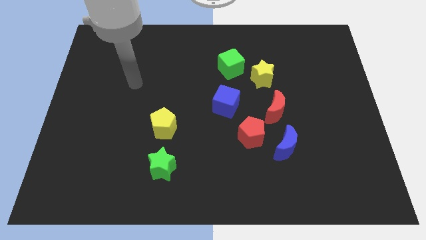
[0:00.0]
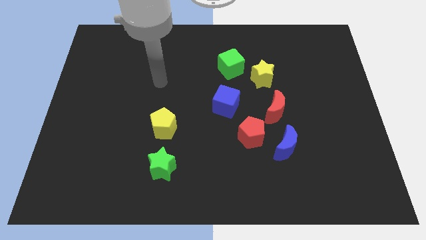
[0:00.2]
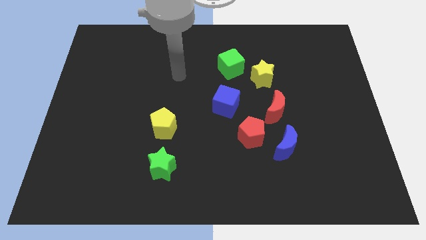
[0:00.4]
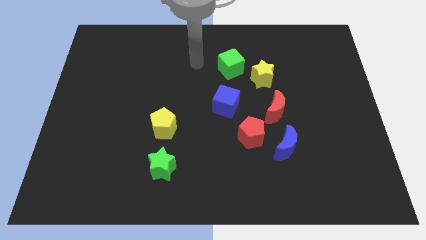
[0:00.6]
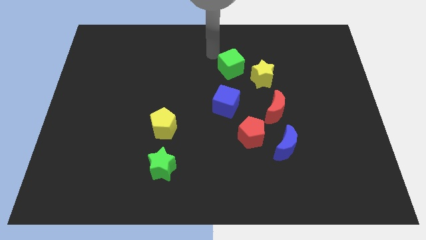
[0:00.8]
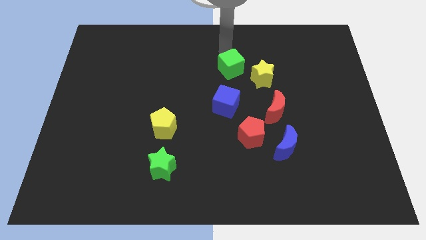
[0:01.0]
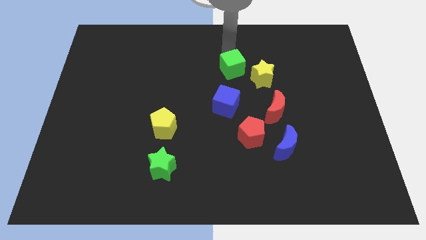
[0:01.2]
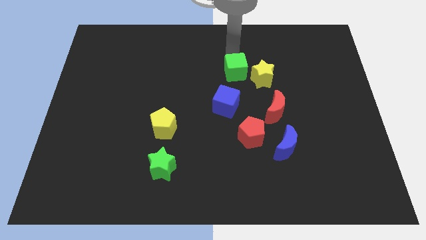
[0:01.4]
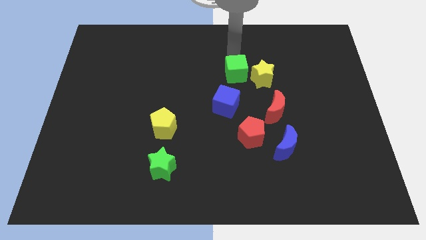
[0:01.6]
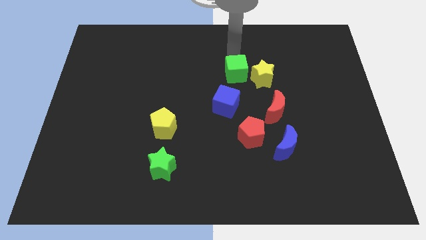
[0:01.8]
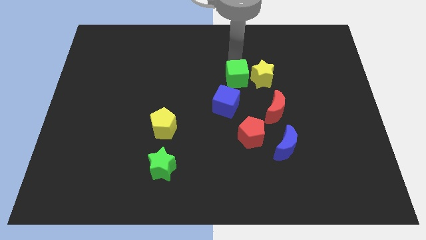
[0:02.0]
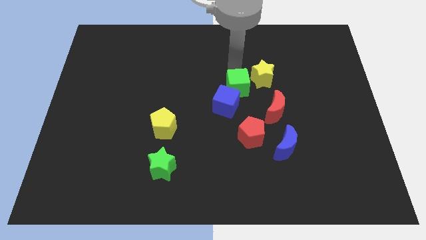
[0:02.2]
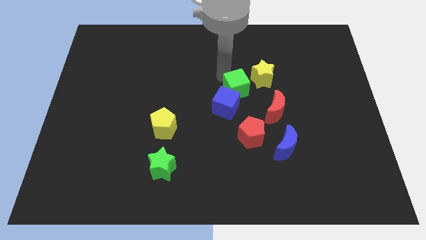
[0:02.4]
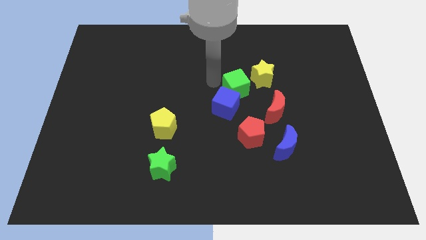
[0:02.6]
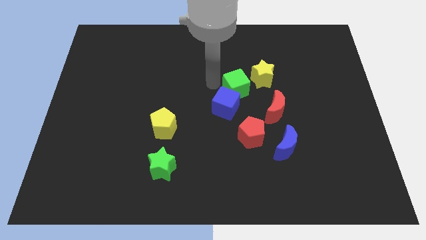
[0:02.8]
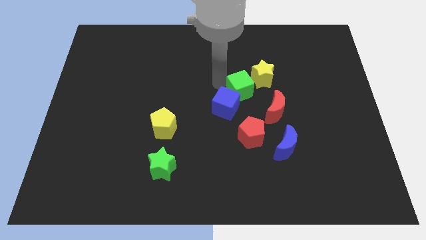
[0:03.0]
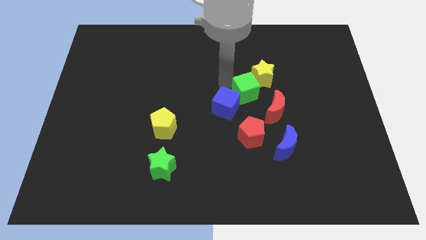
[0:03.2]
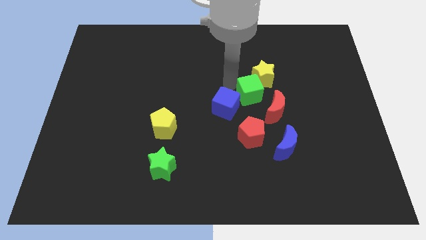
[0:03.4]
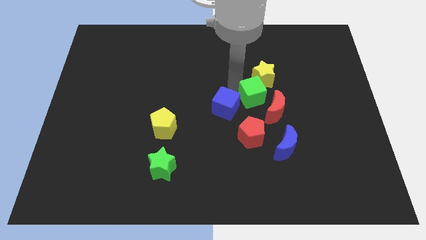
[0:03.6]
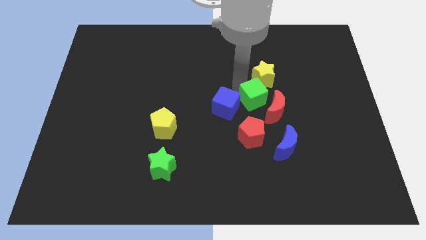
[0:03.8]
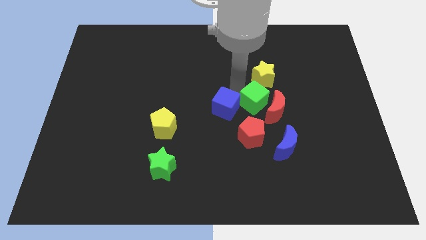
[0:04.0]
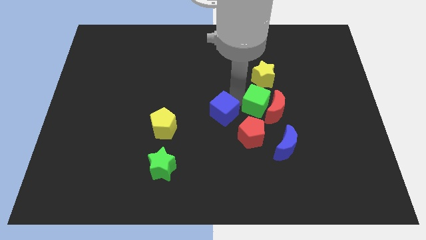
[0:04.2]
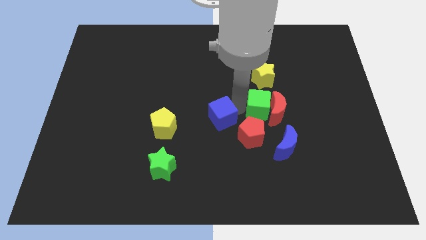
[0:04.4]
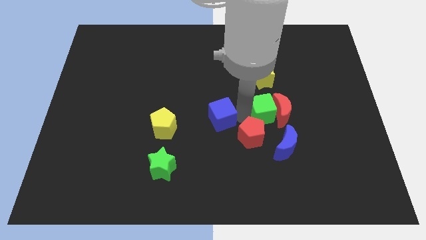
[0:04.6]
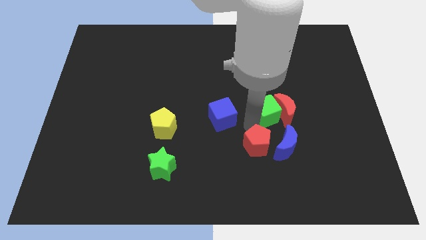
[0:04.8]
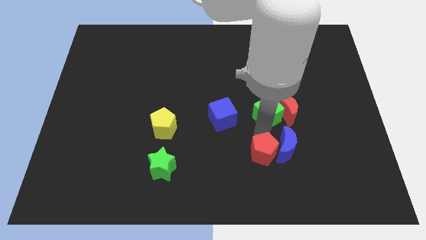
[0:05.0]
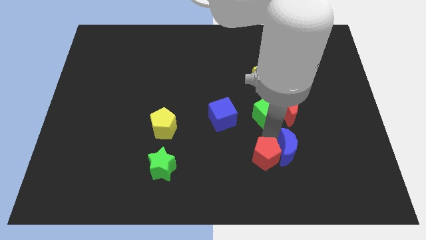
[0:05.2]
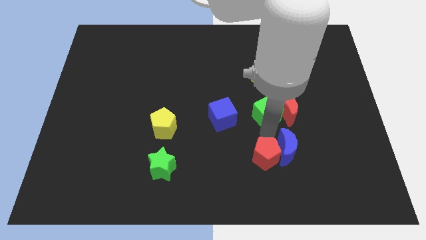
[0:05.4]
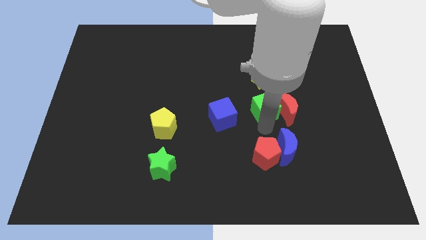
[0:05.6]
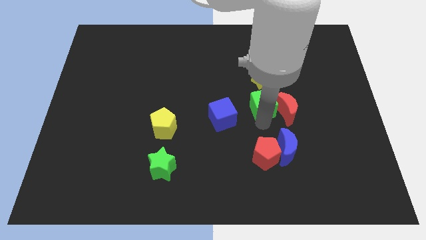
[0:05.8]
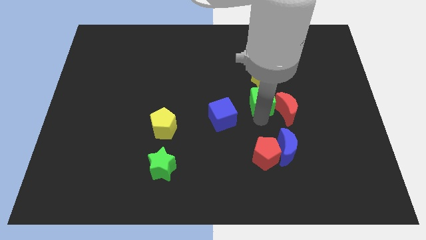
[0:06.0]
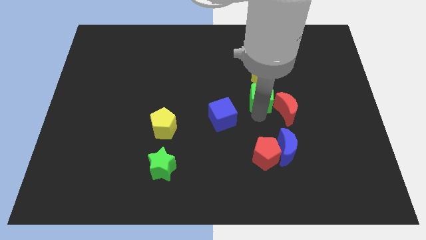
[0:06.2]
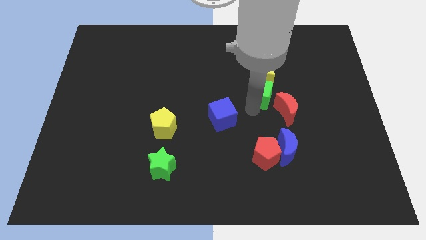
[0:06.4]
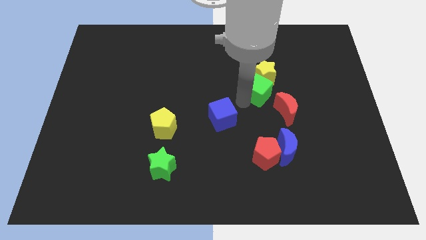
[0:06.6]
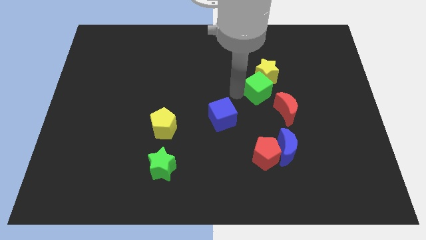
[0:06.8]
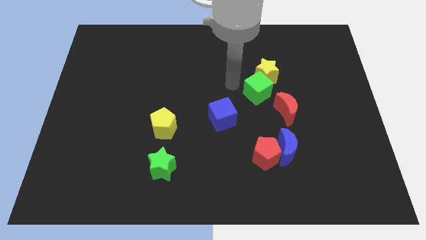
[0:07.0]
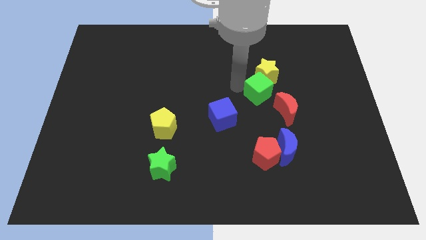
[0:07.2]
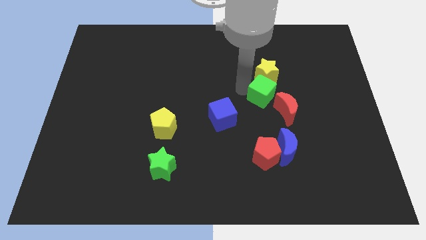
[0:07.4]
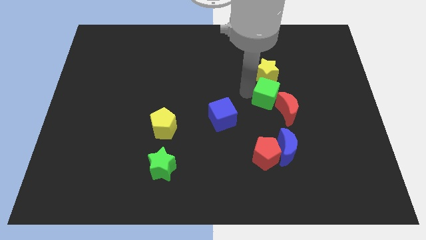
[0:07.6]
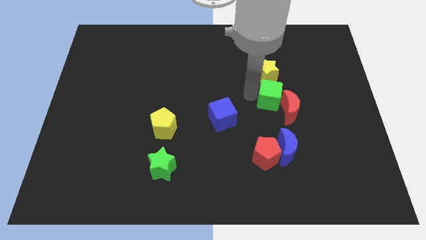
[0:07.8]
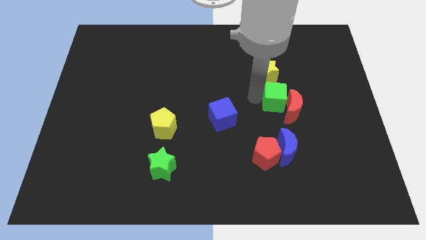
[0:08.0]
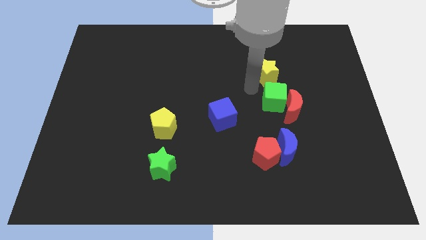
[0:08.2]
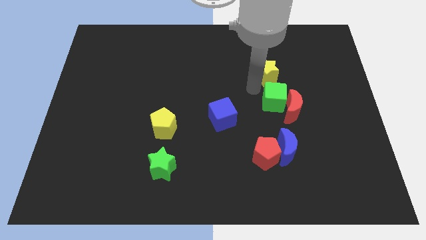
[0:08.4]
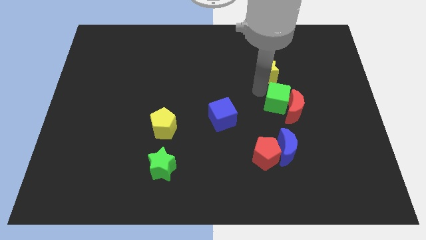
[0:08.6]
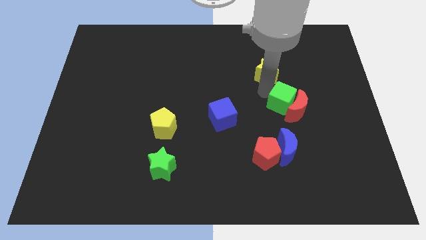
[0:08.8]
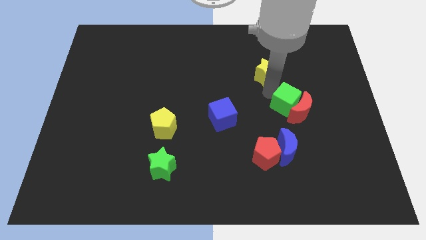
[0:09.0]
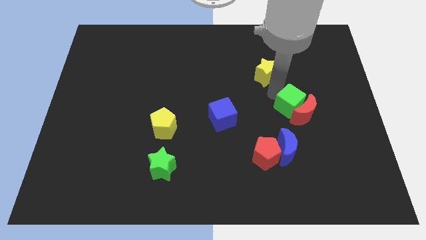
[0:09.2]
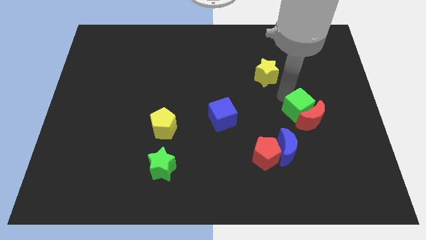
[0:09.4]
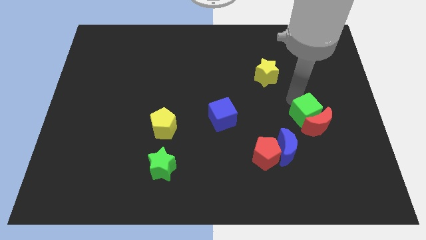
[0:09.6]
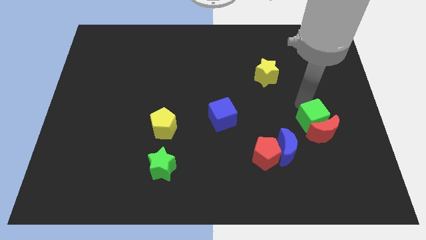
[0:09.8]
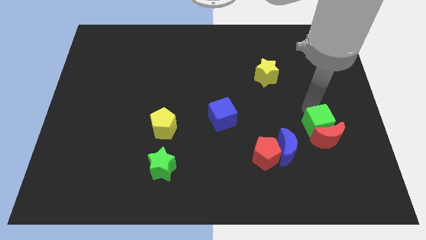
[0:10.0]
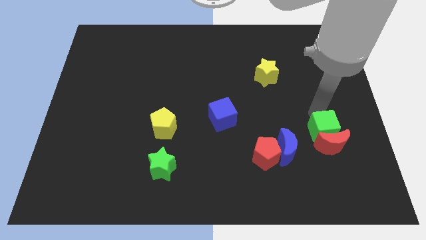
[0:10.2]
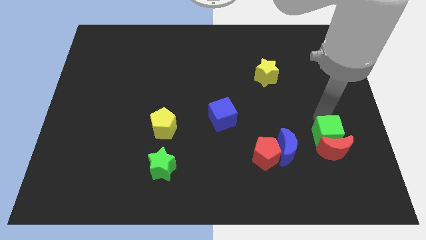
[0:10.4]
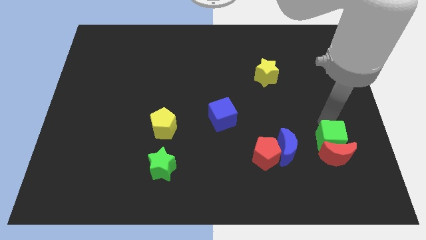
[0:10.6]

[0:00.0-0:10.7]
push the green cube just right of the red pentagon

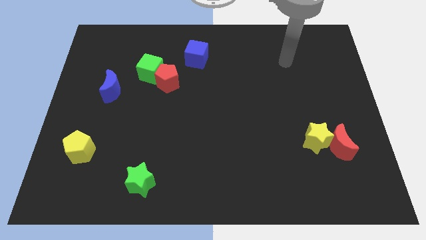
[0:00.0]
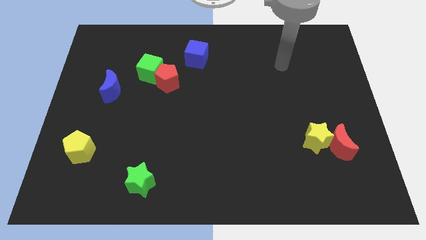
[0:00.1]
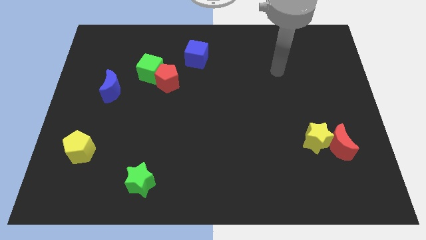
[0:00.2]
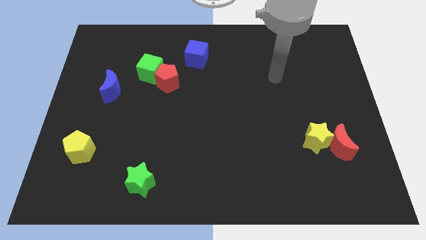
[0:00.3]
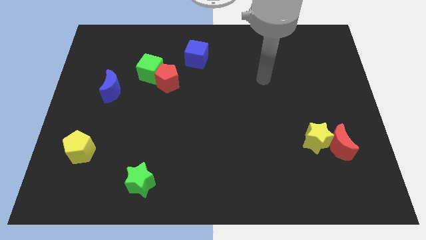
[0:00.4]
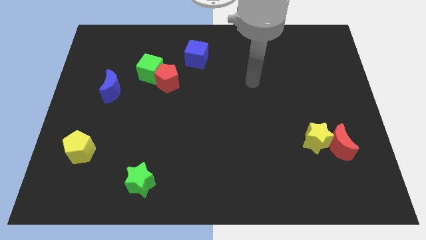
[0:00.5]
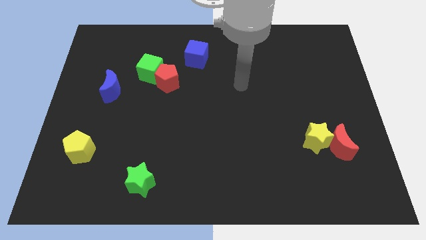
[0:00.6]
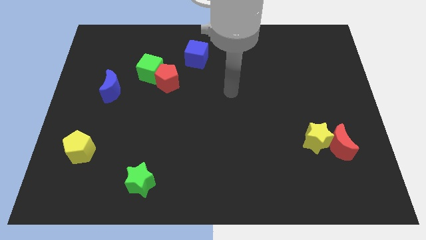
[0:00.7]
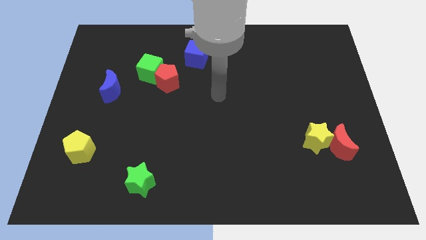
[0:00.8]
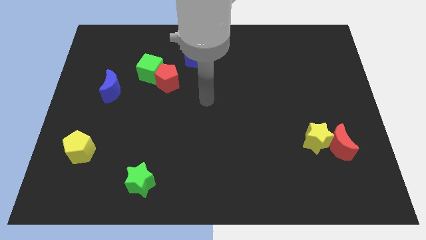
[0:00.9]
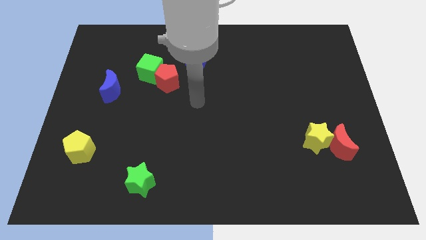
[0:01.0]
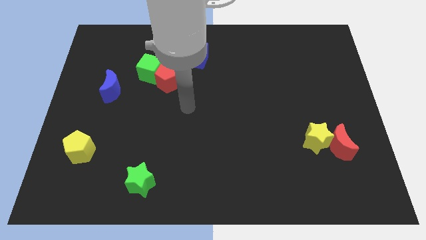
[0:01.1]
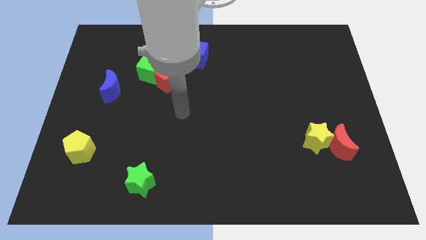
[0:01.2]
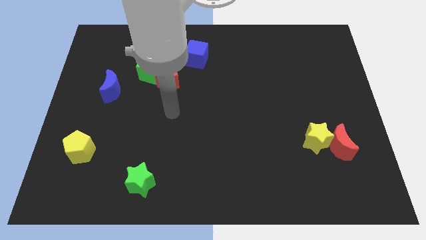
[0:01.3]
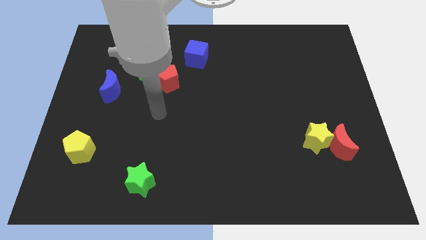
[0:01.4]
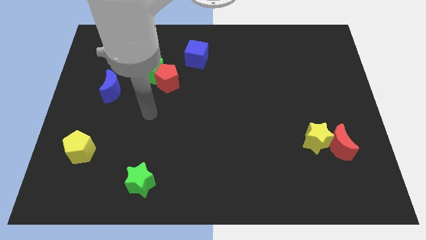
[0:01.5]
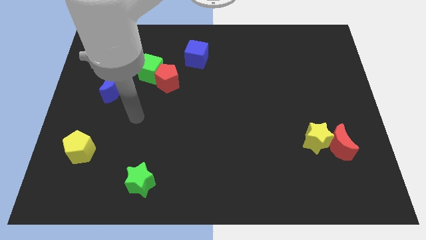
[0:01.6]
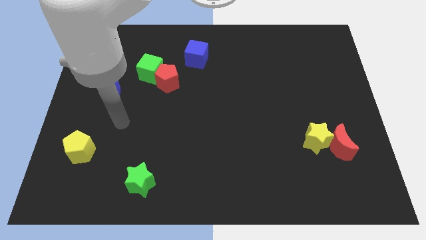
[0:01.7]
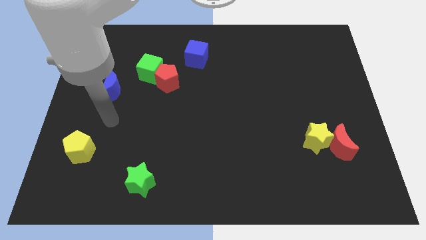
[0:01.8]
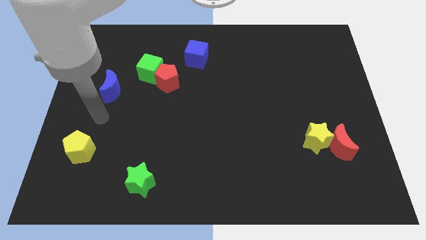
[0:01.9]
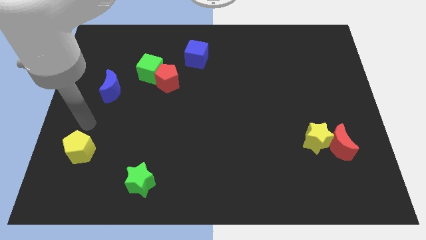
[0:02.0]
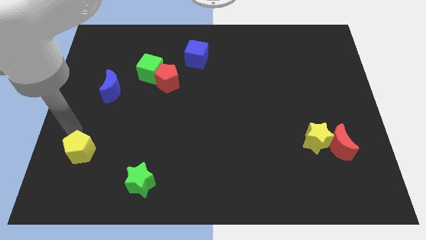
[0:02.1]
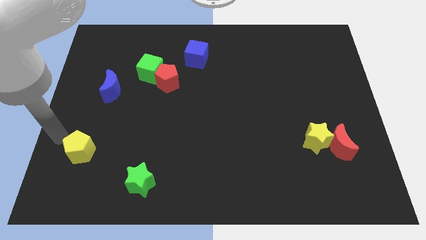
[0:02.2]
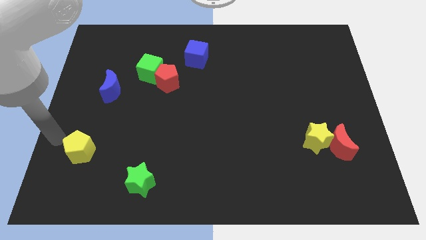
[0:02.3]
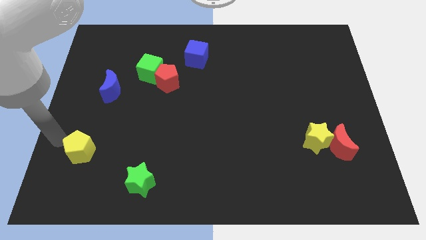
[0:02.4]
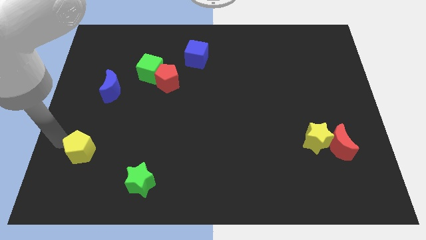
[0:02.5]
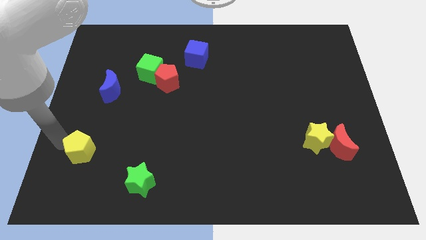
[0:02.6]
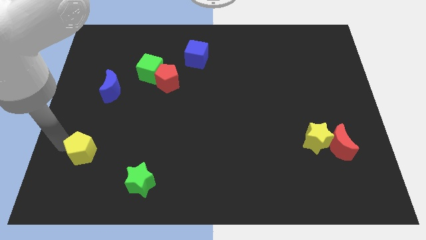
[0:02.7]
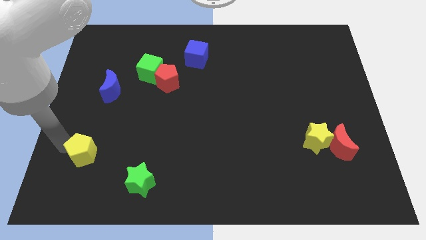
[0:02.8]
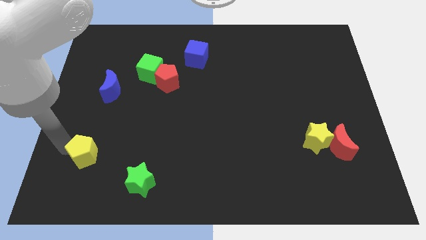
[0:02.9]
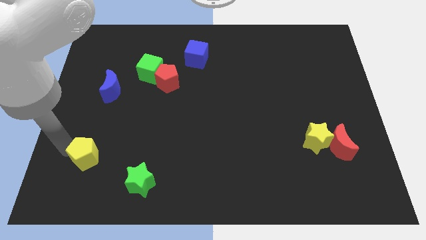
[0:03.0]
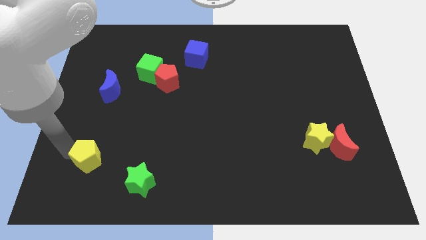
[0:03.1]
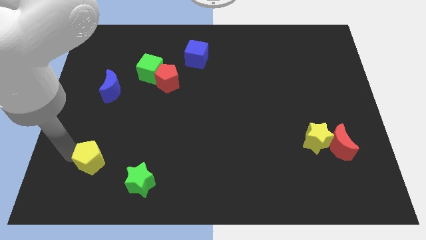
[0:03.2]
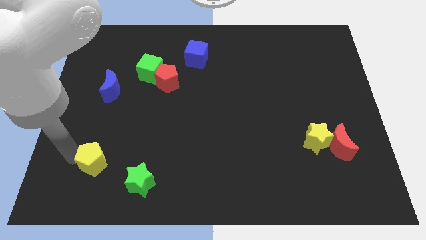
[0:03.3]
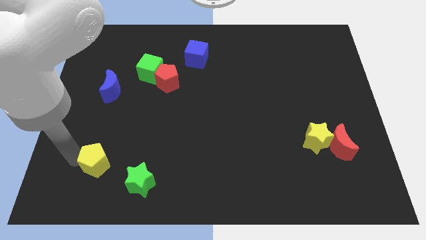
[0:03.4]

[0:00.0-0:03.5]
put the yellow pentagon to the top left of the green star
